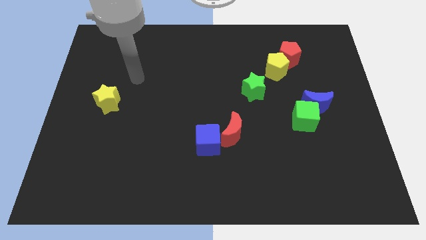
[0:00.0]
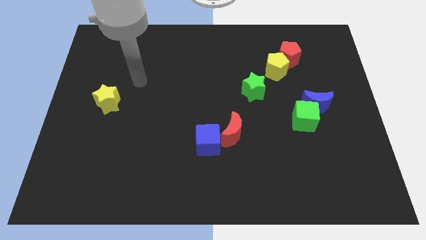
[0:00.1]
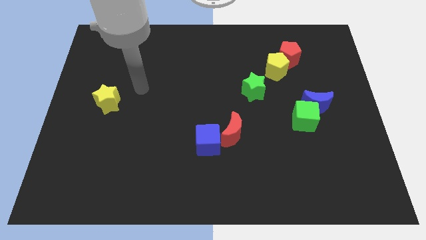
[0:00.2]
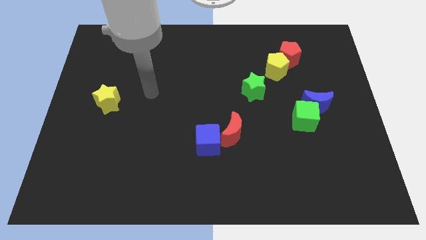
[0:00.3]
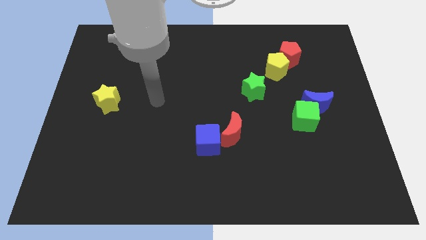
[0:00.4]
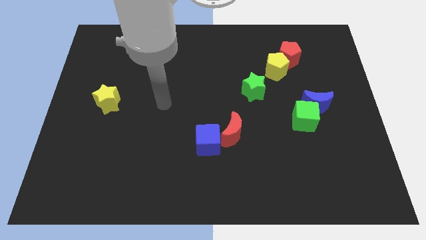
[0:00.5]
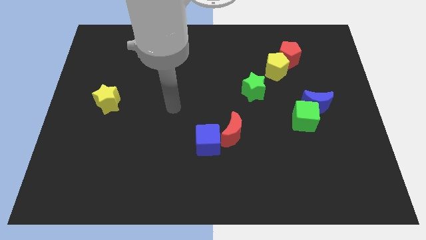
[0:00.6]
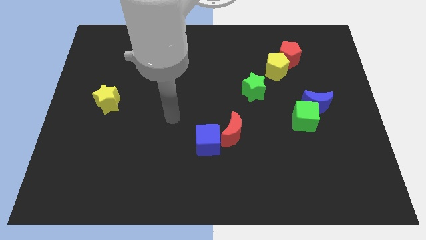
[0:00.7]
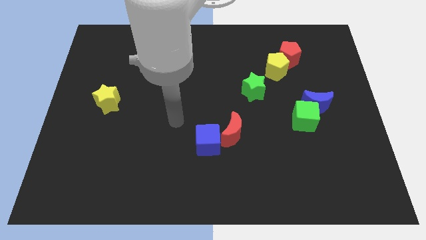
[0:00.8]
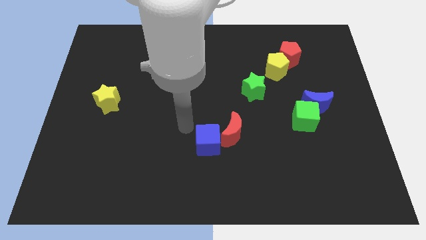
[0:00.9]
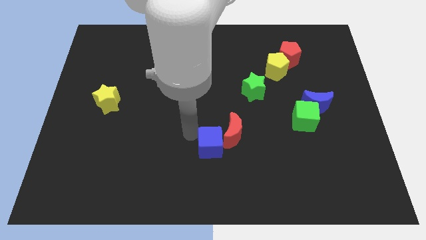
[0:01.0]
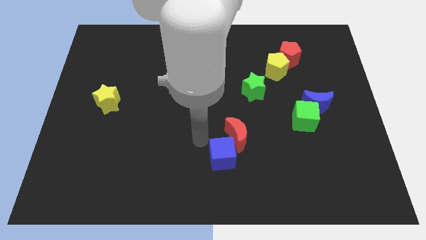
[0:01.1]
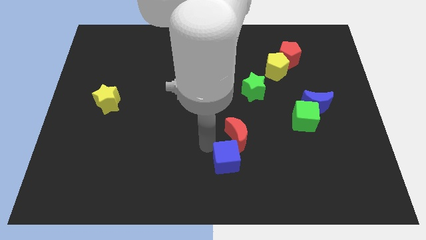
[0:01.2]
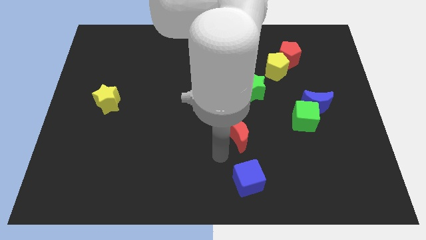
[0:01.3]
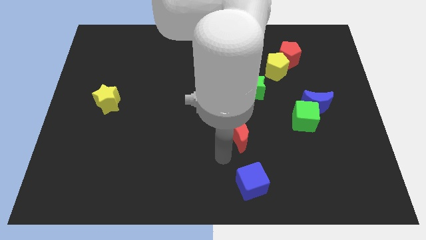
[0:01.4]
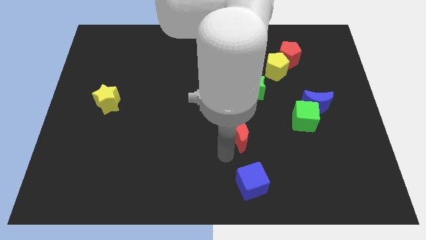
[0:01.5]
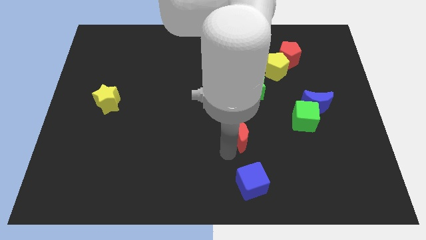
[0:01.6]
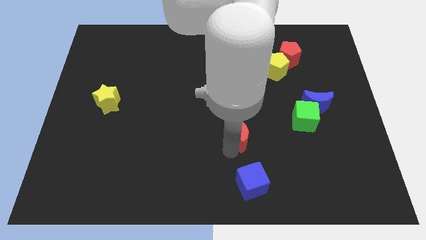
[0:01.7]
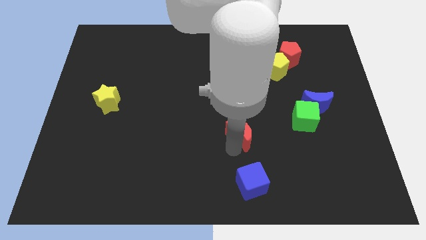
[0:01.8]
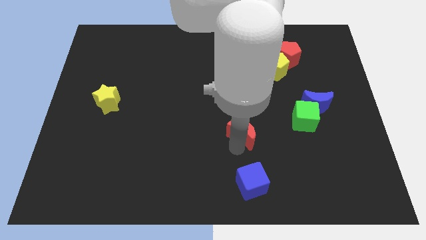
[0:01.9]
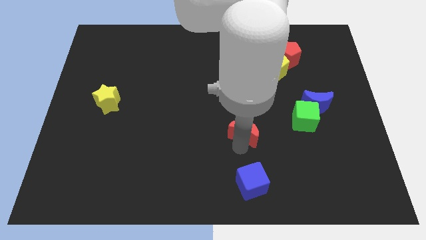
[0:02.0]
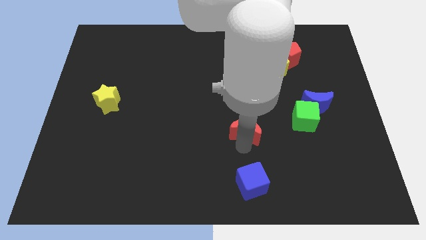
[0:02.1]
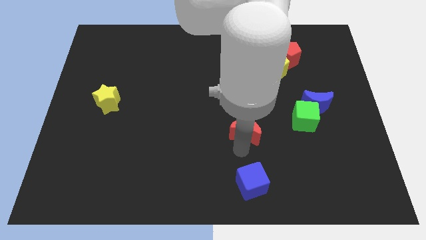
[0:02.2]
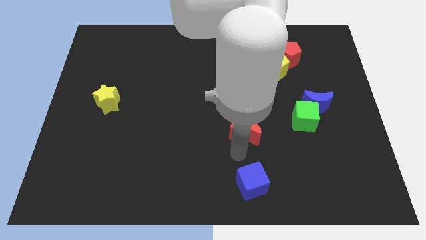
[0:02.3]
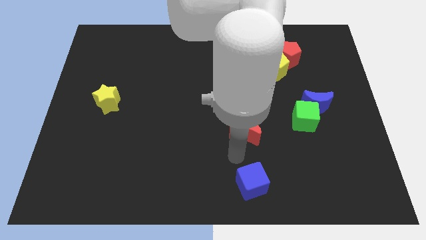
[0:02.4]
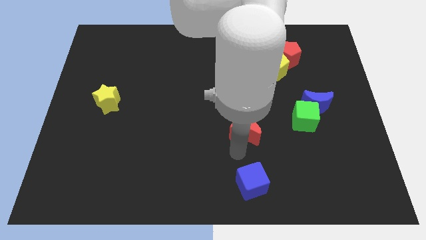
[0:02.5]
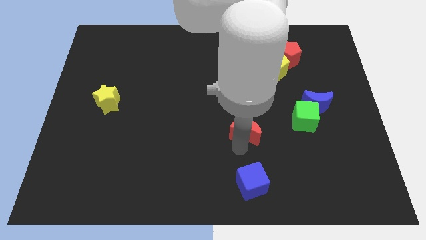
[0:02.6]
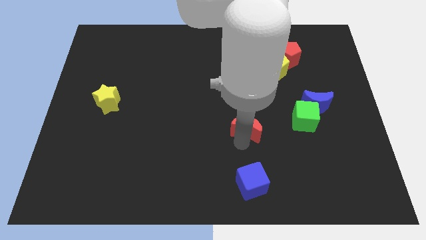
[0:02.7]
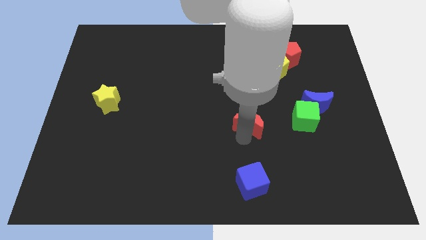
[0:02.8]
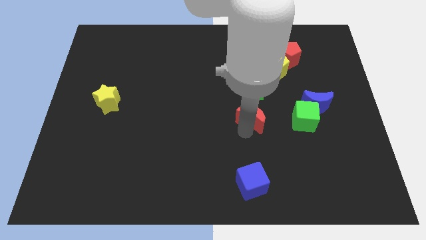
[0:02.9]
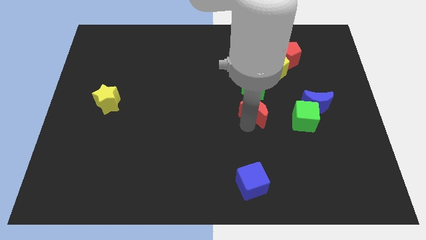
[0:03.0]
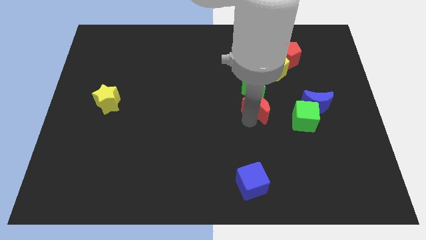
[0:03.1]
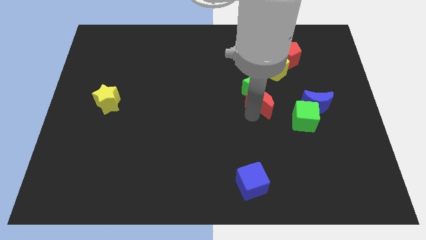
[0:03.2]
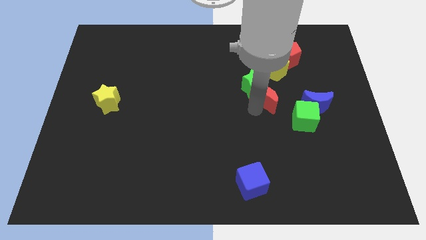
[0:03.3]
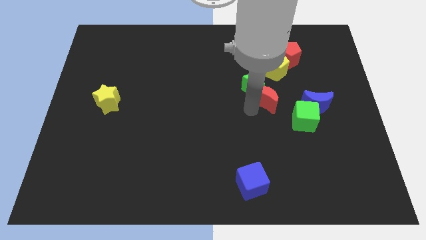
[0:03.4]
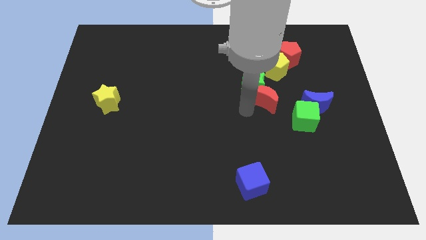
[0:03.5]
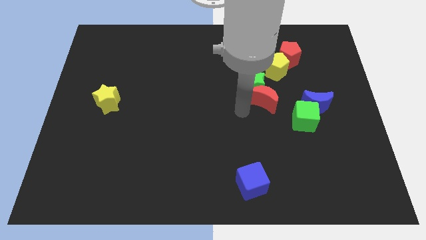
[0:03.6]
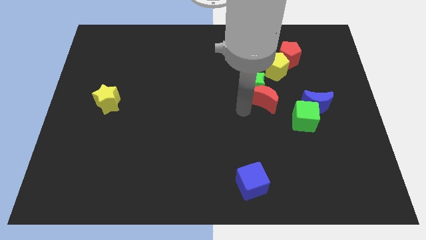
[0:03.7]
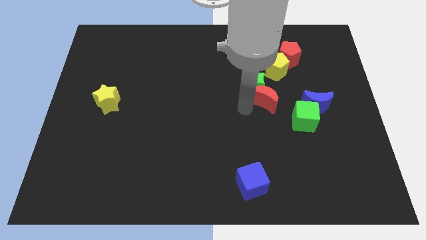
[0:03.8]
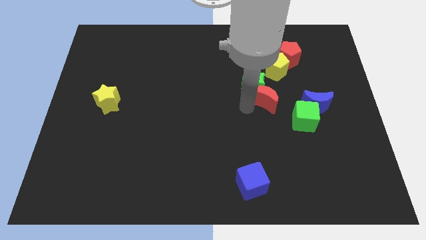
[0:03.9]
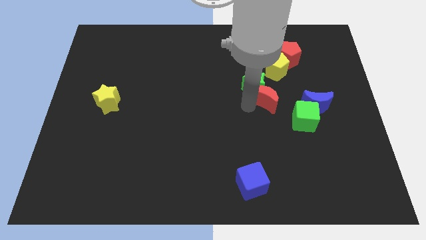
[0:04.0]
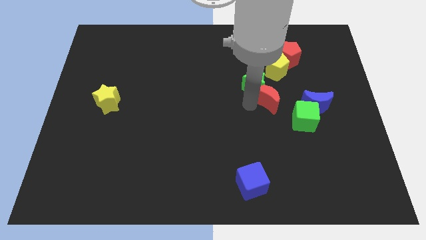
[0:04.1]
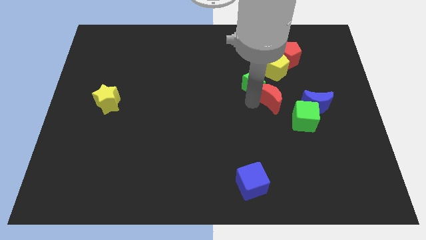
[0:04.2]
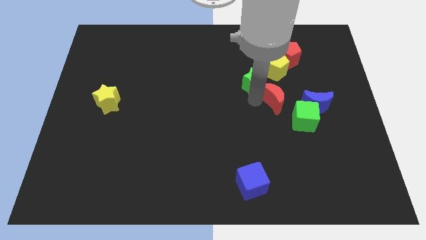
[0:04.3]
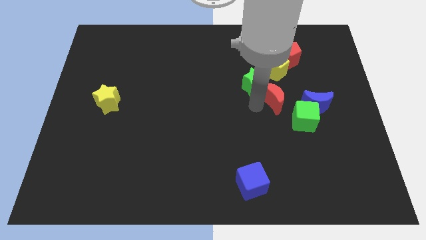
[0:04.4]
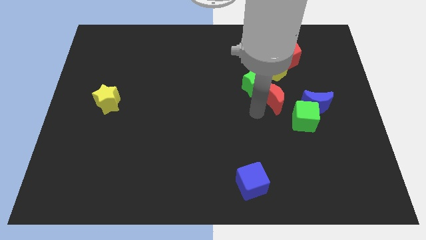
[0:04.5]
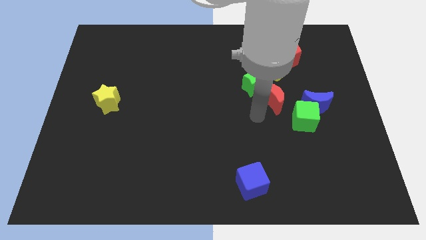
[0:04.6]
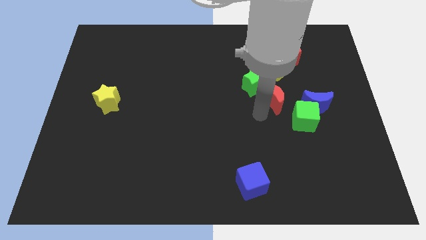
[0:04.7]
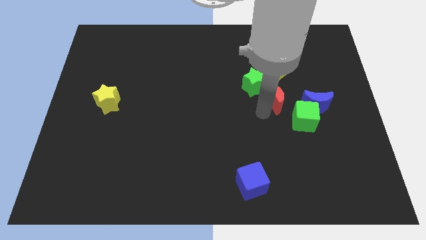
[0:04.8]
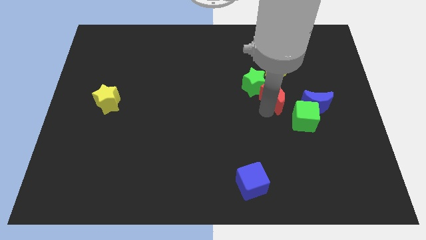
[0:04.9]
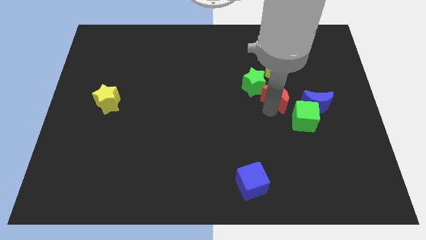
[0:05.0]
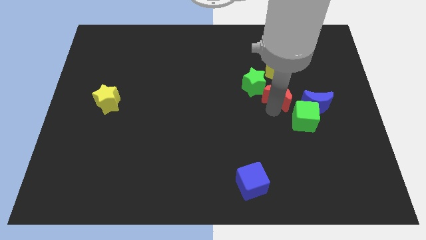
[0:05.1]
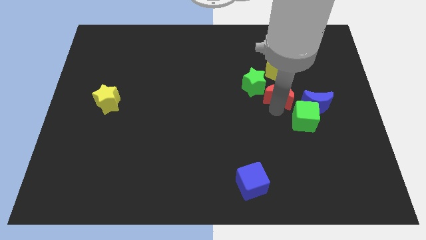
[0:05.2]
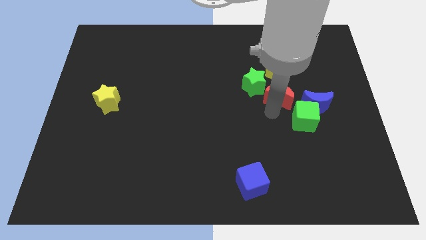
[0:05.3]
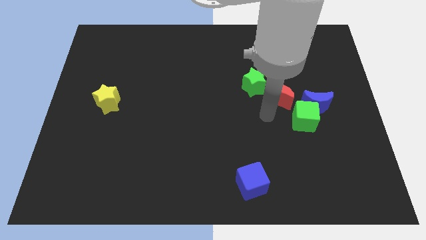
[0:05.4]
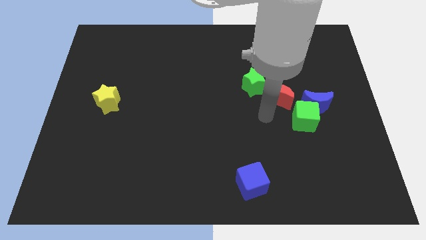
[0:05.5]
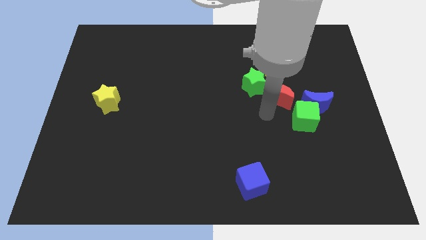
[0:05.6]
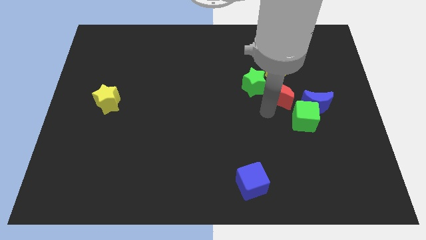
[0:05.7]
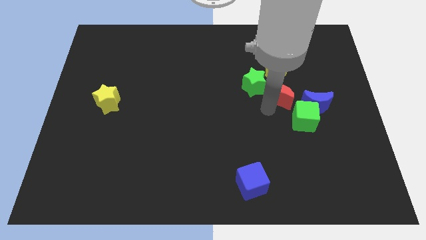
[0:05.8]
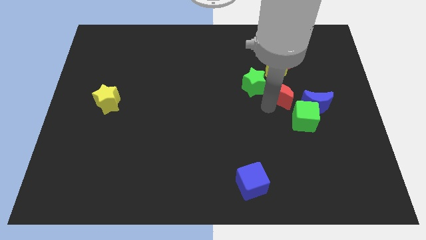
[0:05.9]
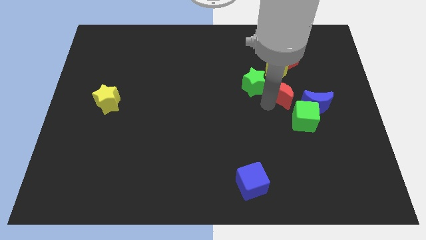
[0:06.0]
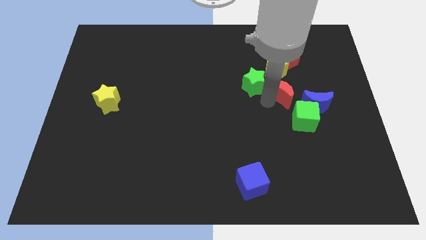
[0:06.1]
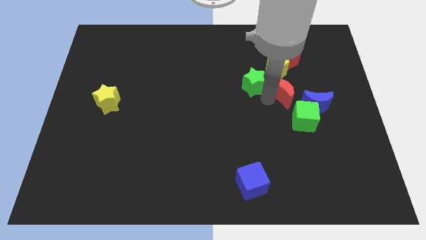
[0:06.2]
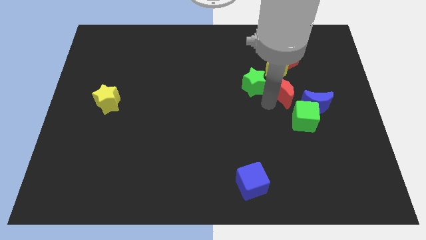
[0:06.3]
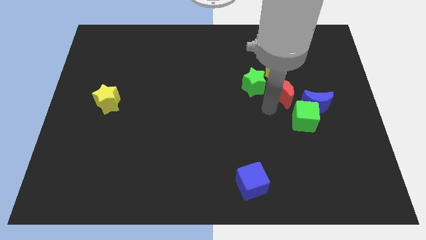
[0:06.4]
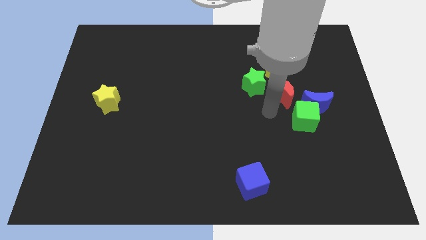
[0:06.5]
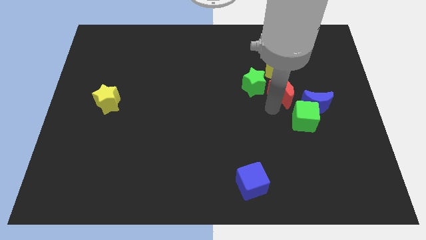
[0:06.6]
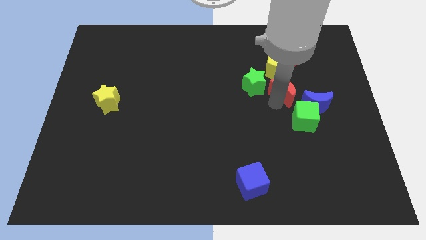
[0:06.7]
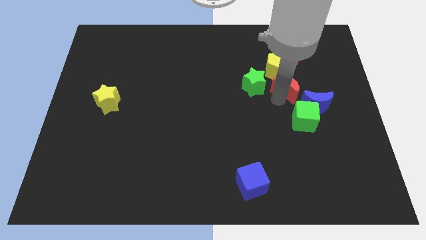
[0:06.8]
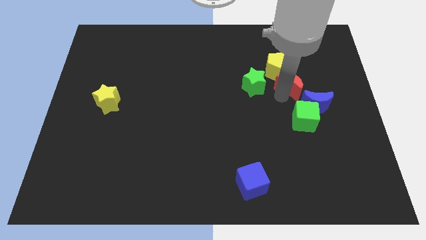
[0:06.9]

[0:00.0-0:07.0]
slide the red moon upwards and then to the right

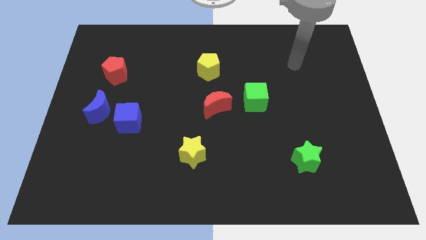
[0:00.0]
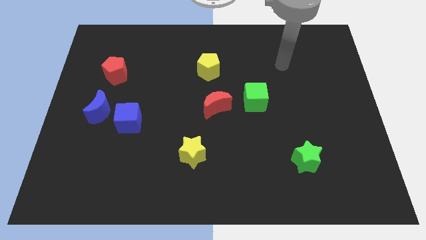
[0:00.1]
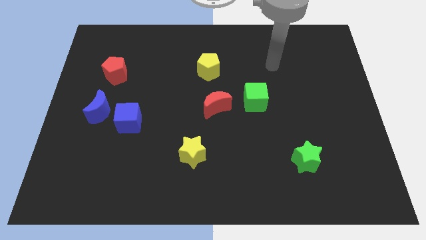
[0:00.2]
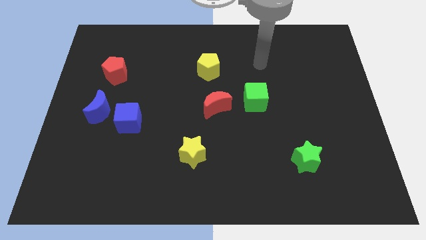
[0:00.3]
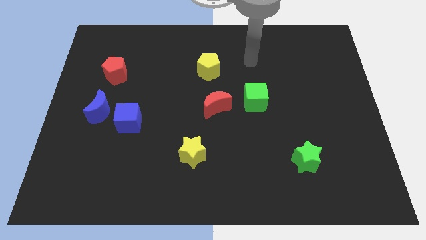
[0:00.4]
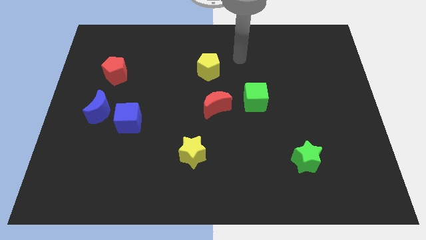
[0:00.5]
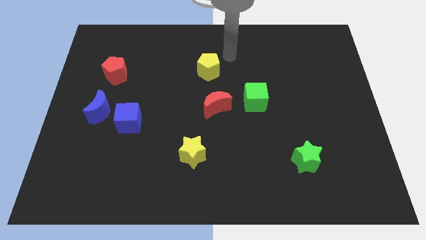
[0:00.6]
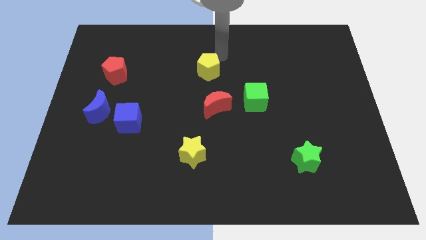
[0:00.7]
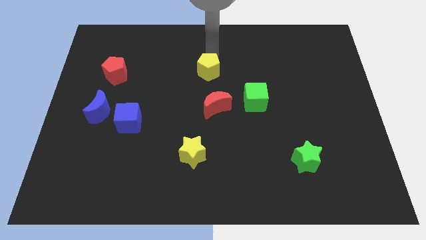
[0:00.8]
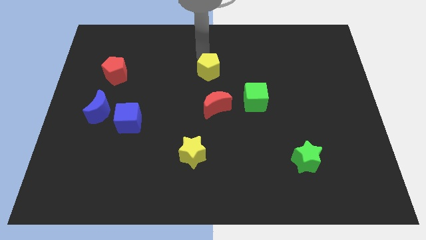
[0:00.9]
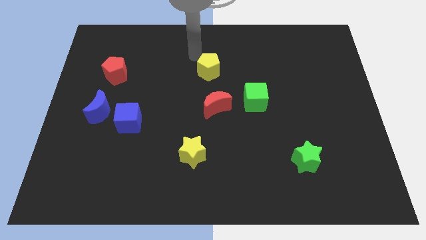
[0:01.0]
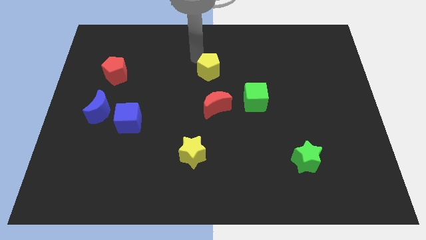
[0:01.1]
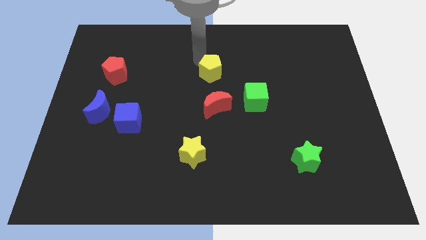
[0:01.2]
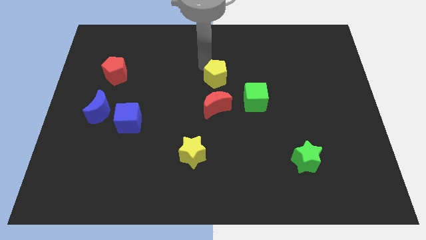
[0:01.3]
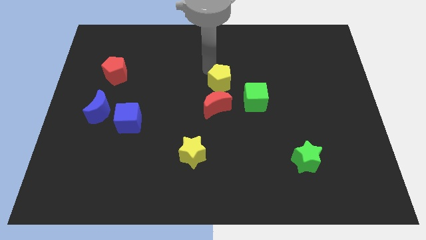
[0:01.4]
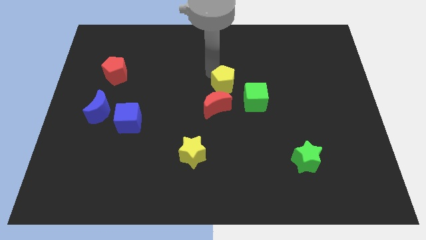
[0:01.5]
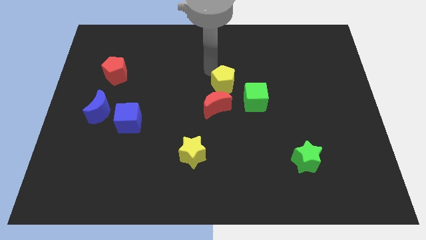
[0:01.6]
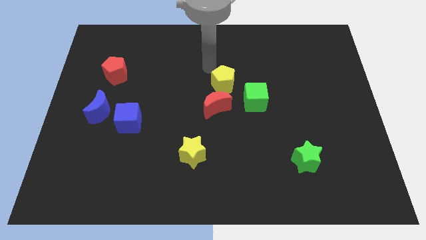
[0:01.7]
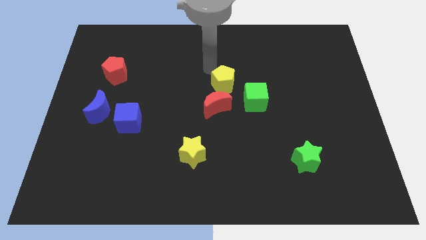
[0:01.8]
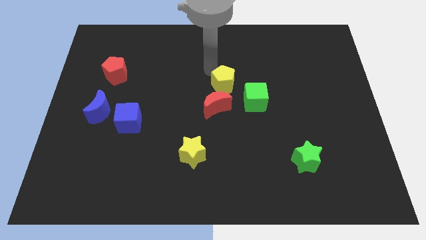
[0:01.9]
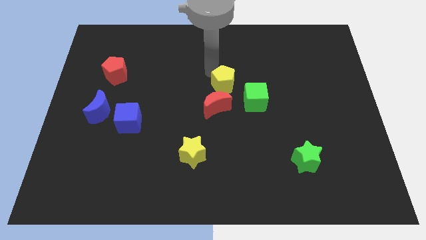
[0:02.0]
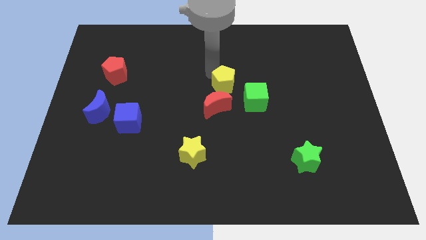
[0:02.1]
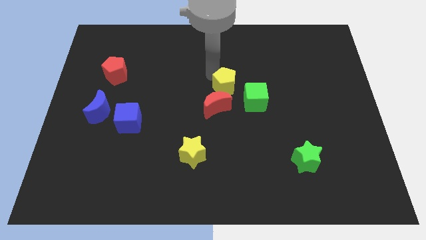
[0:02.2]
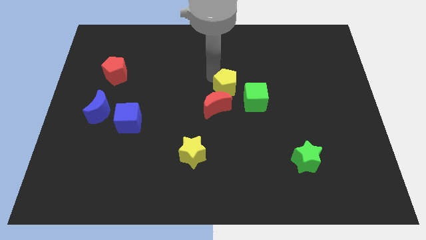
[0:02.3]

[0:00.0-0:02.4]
slide the yellow pentagon downwards and then to the right a little
